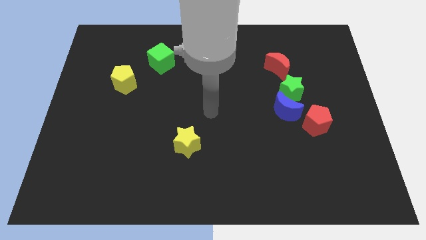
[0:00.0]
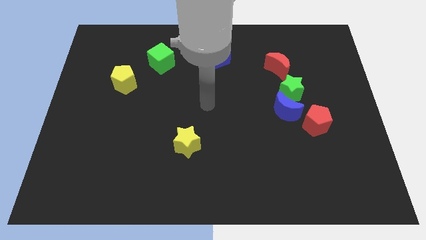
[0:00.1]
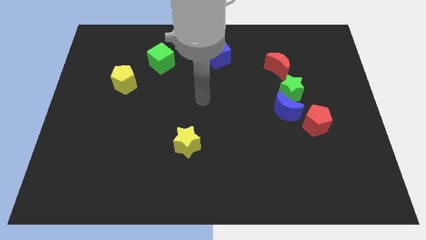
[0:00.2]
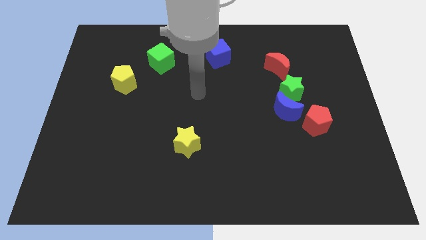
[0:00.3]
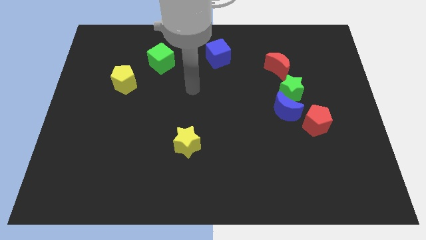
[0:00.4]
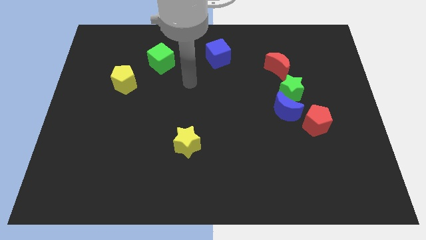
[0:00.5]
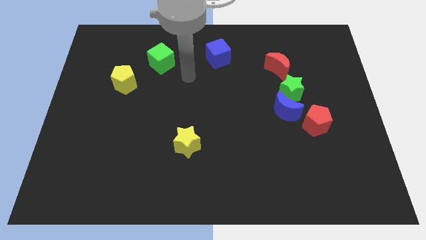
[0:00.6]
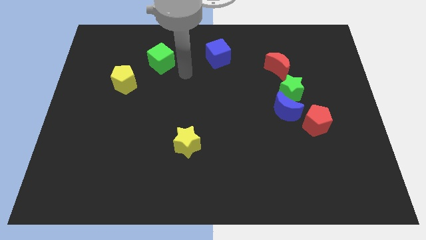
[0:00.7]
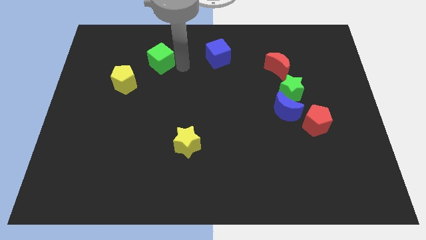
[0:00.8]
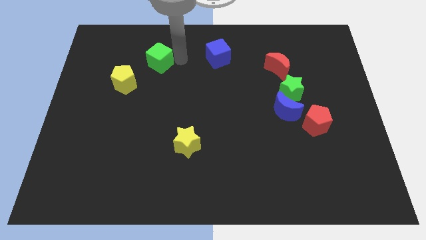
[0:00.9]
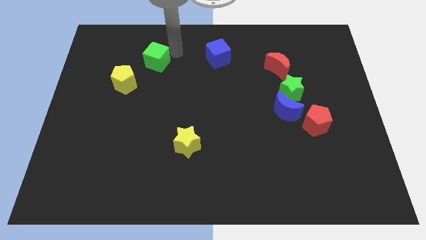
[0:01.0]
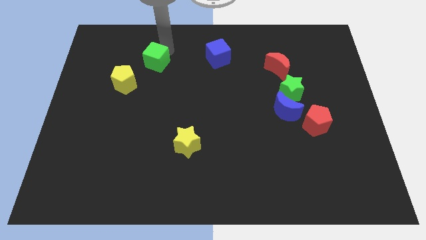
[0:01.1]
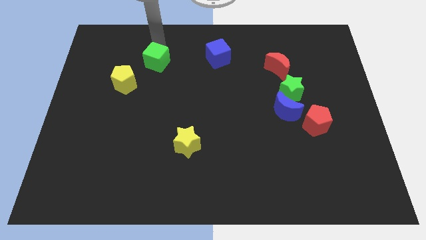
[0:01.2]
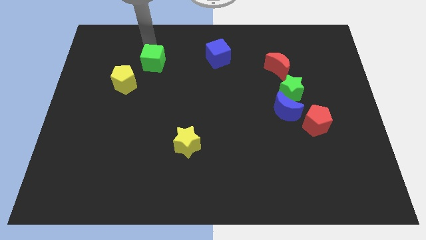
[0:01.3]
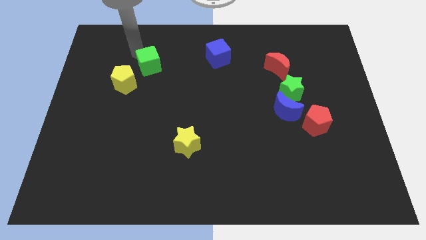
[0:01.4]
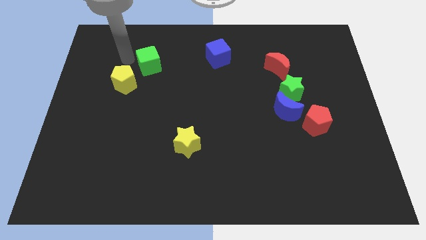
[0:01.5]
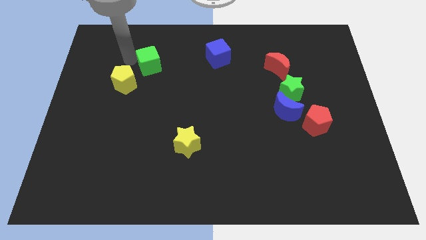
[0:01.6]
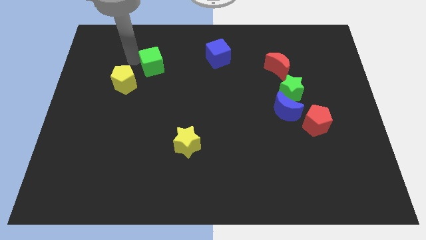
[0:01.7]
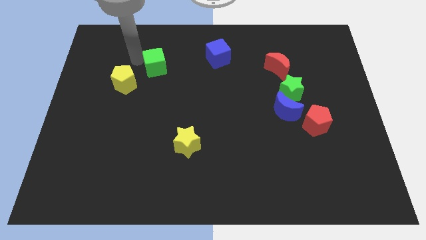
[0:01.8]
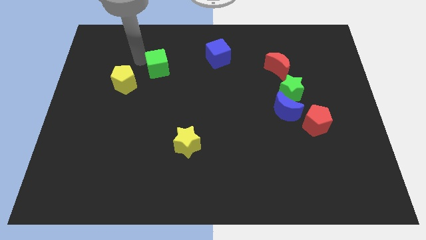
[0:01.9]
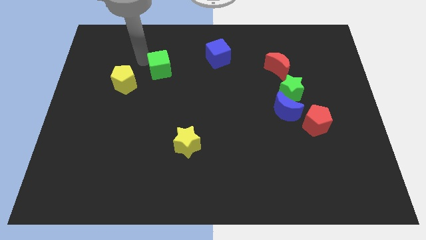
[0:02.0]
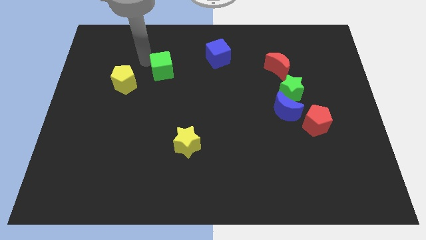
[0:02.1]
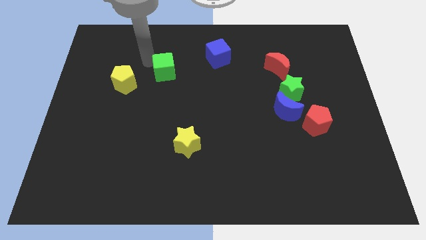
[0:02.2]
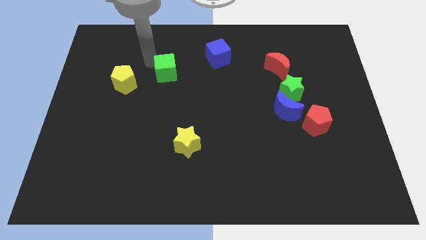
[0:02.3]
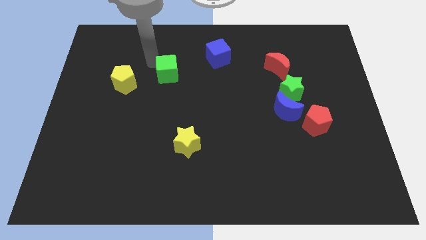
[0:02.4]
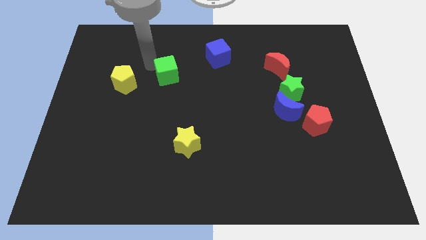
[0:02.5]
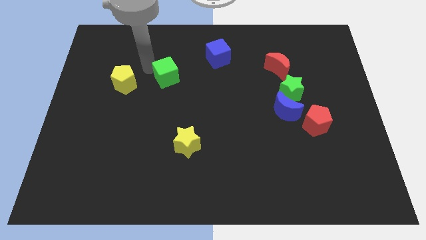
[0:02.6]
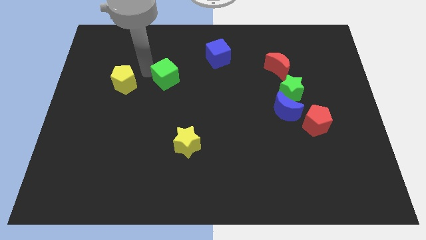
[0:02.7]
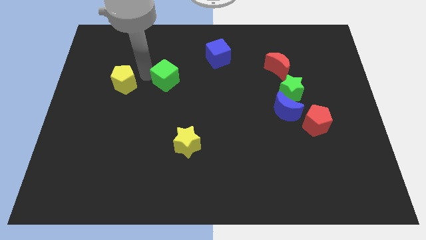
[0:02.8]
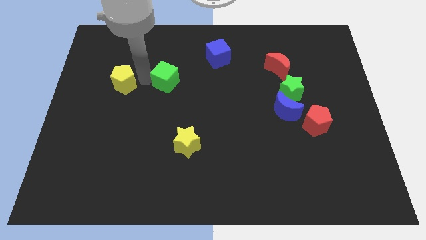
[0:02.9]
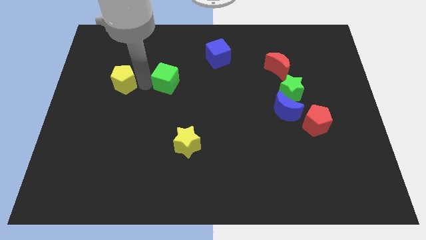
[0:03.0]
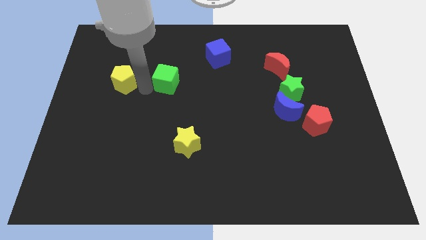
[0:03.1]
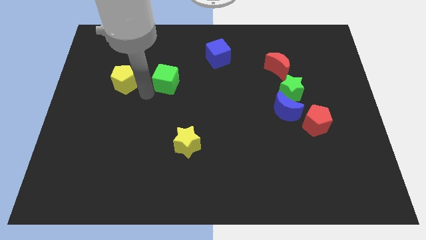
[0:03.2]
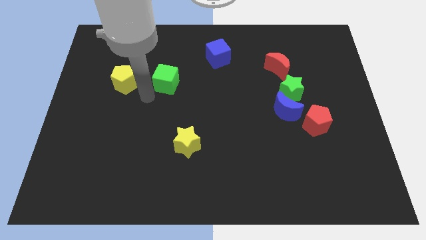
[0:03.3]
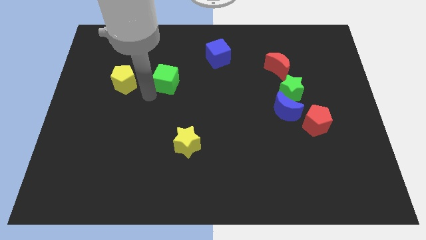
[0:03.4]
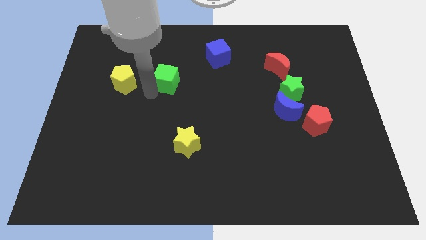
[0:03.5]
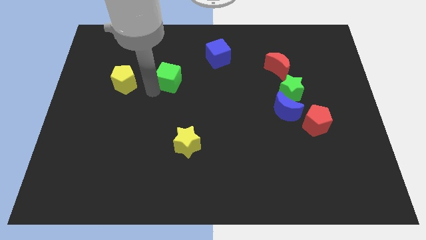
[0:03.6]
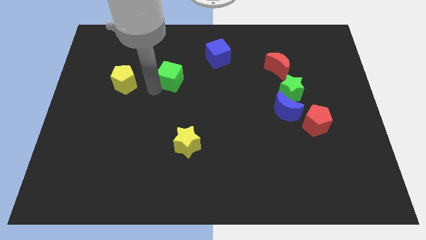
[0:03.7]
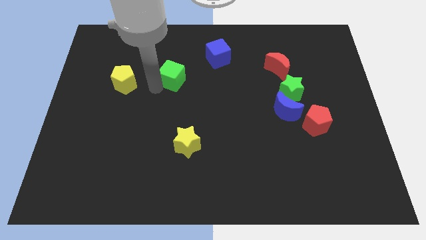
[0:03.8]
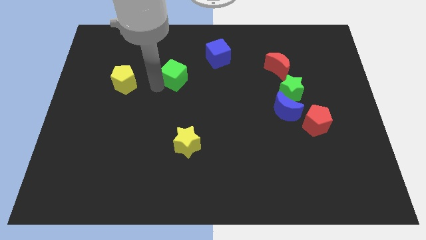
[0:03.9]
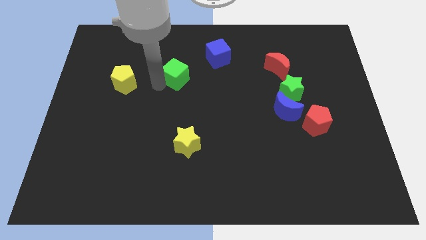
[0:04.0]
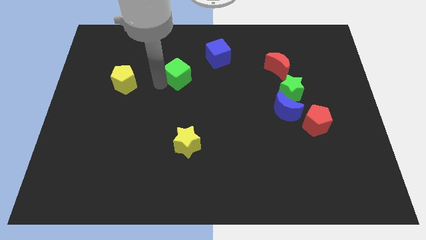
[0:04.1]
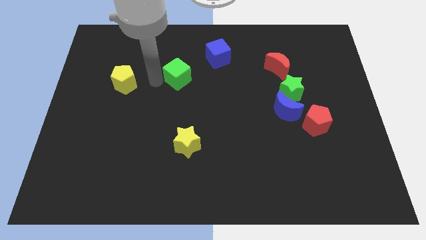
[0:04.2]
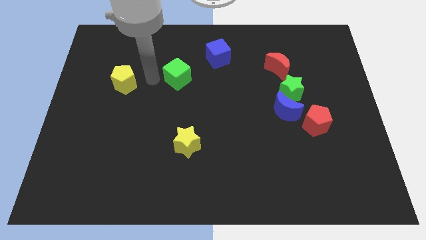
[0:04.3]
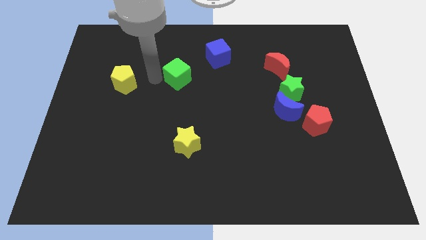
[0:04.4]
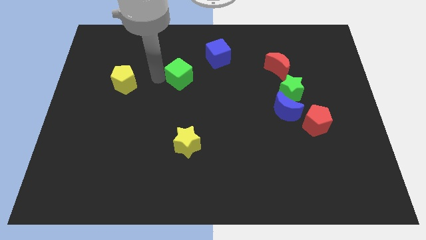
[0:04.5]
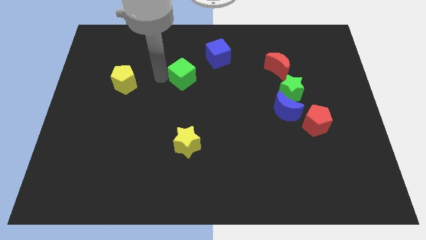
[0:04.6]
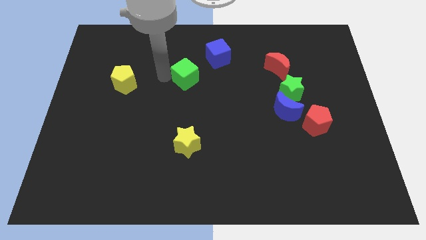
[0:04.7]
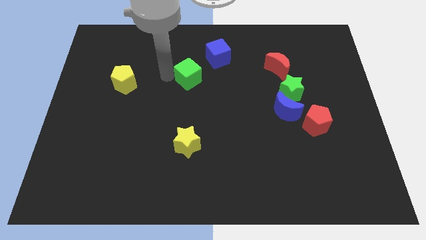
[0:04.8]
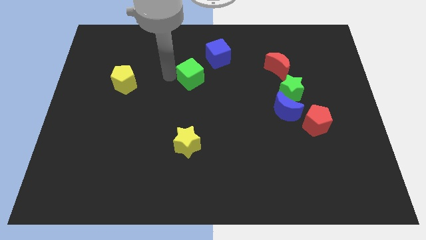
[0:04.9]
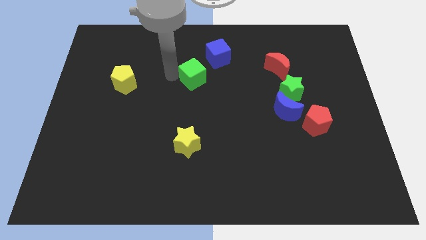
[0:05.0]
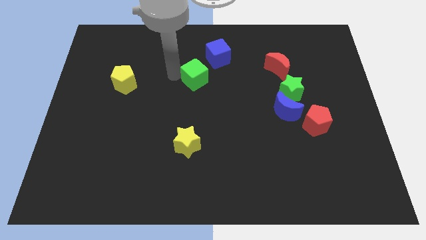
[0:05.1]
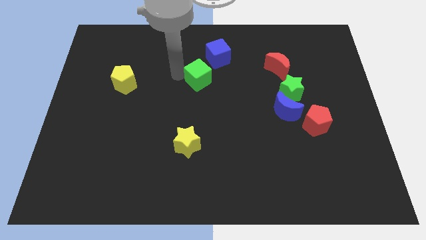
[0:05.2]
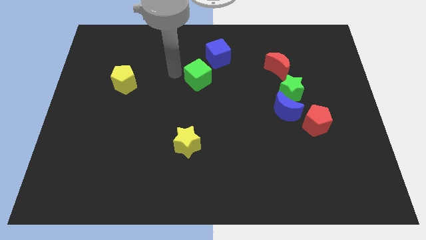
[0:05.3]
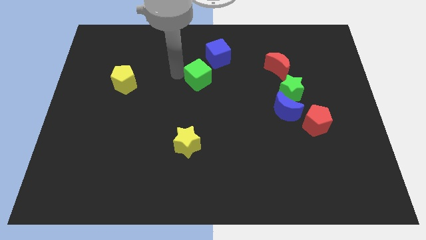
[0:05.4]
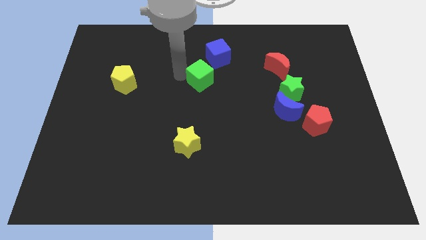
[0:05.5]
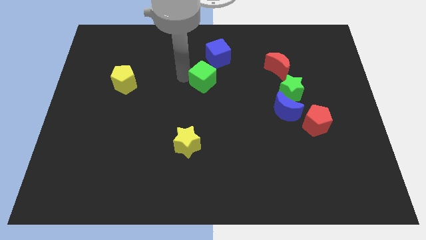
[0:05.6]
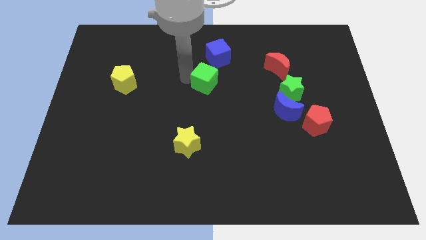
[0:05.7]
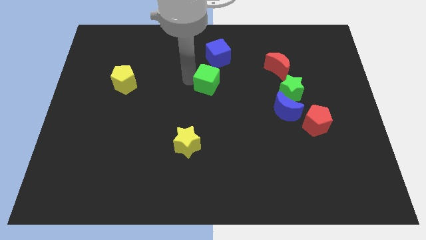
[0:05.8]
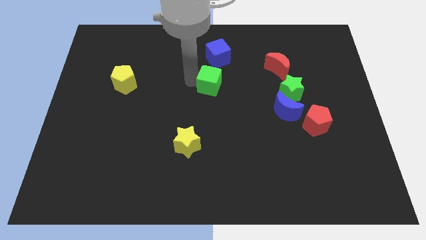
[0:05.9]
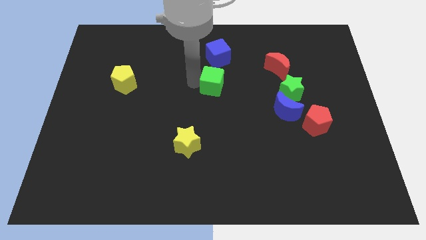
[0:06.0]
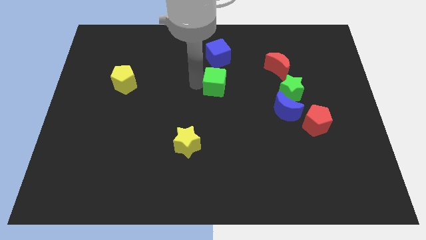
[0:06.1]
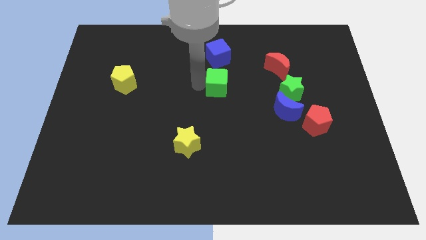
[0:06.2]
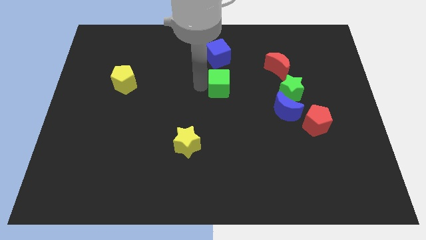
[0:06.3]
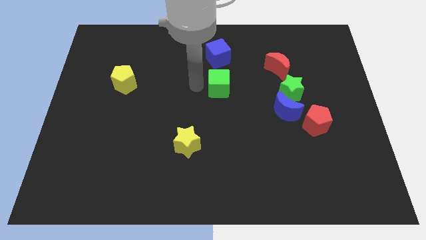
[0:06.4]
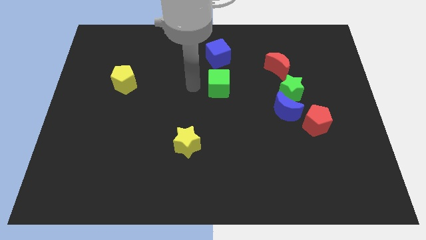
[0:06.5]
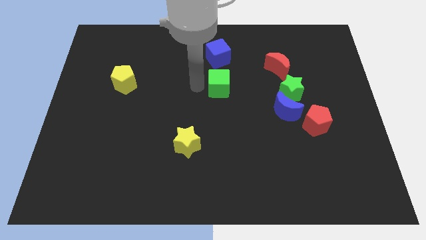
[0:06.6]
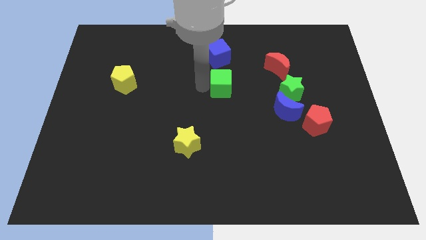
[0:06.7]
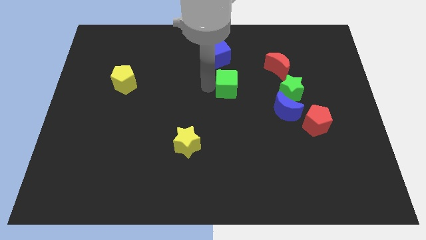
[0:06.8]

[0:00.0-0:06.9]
put the green cube left of the green star
